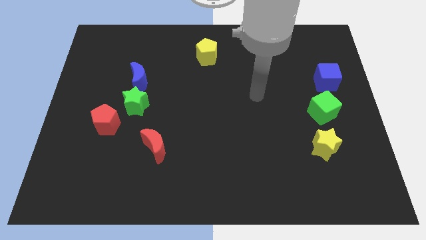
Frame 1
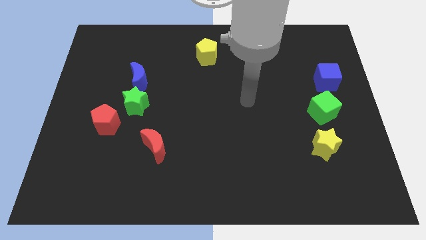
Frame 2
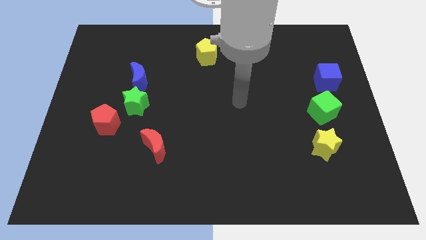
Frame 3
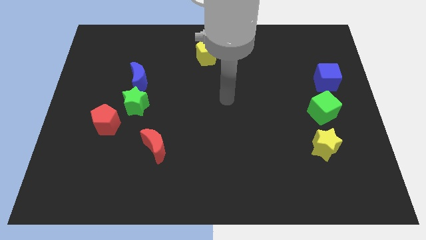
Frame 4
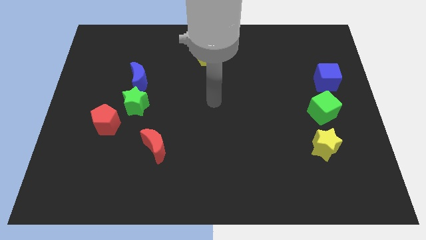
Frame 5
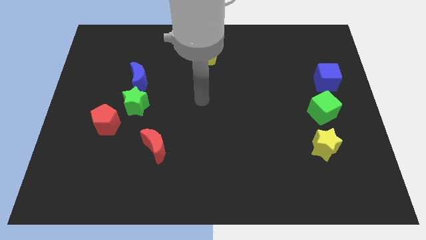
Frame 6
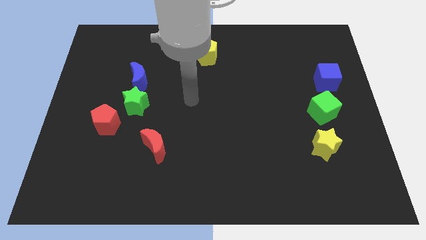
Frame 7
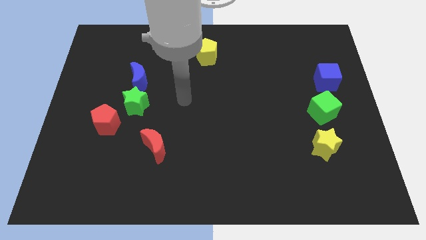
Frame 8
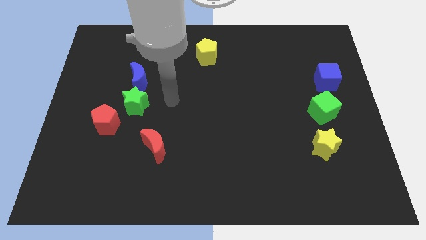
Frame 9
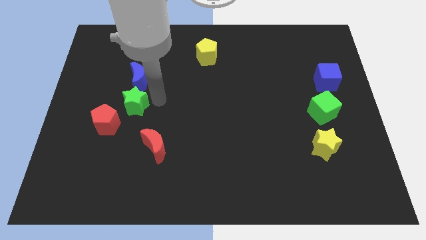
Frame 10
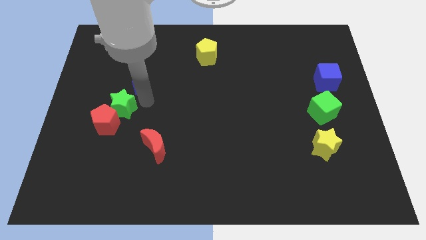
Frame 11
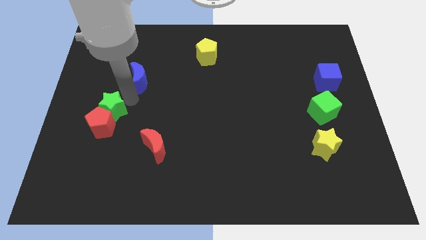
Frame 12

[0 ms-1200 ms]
separate the blue moon from the green star

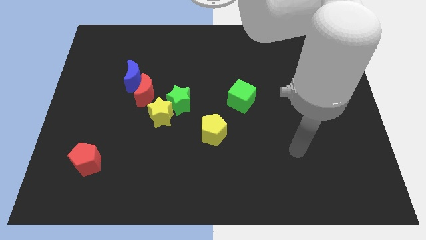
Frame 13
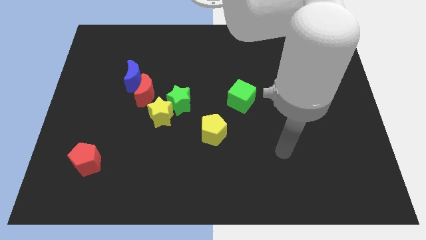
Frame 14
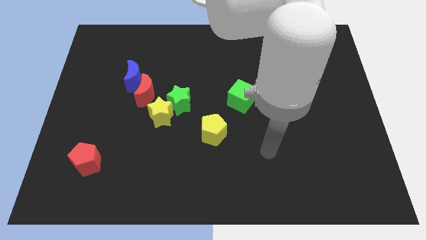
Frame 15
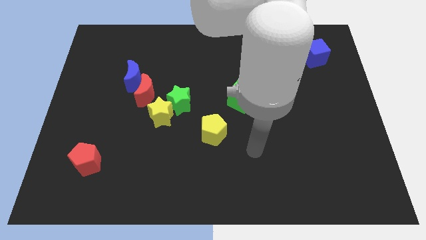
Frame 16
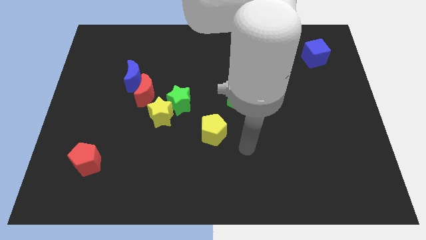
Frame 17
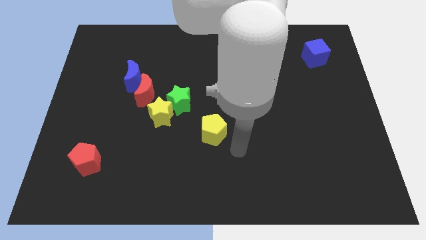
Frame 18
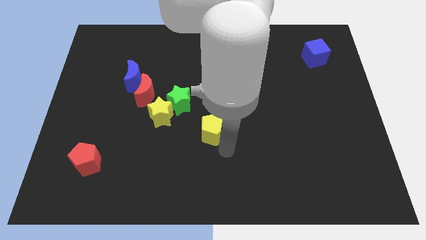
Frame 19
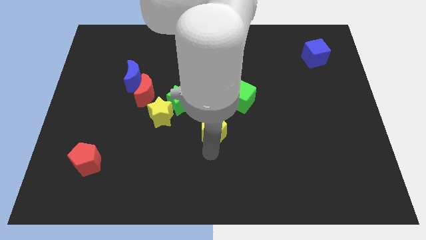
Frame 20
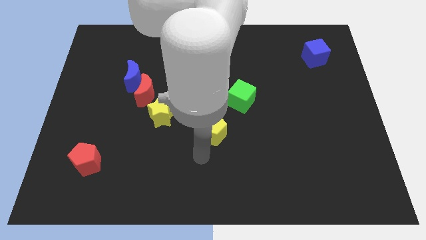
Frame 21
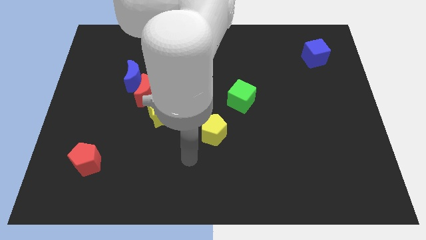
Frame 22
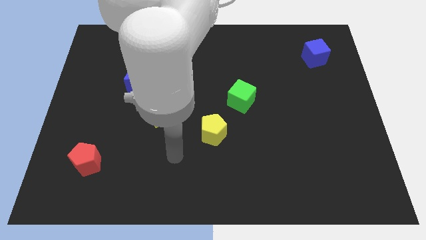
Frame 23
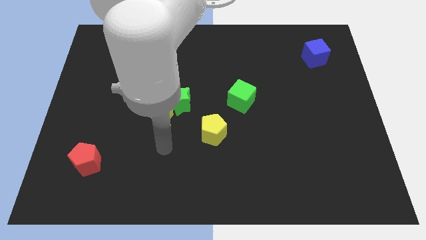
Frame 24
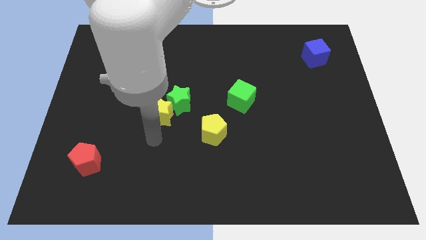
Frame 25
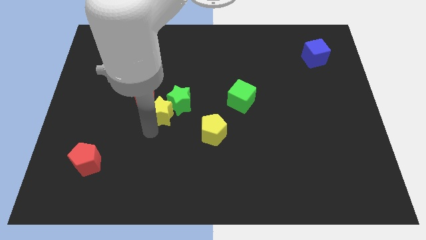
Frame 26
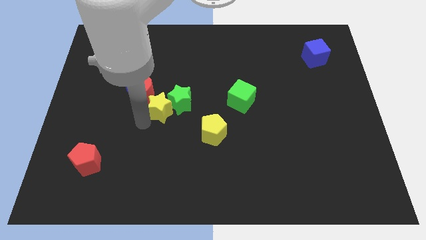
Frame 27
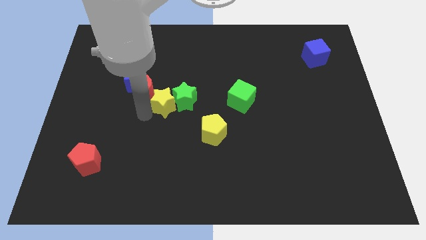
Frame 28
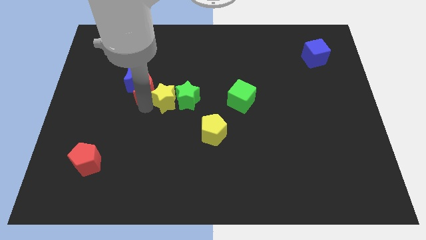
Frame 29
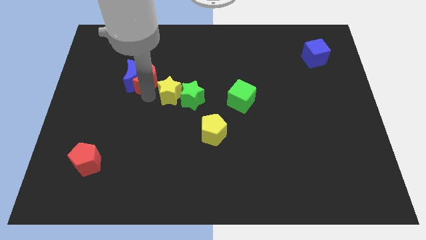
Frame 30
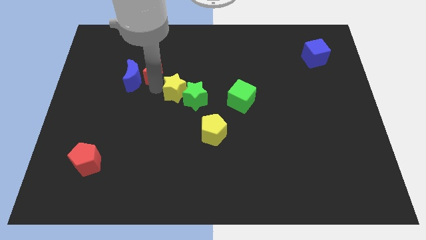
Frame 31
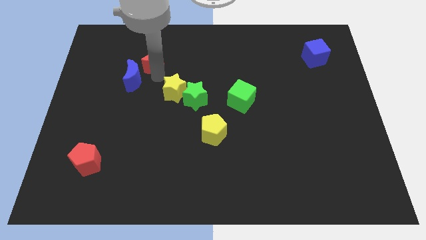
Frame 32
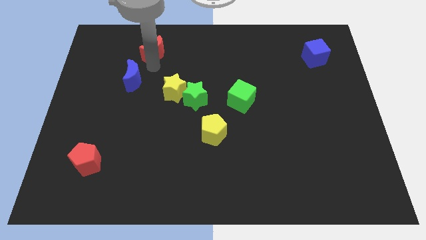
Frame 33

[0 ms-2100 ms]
separate the blue moon from the red moon

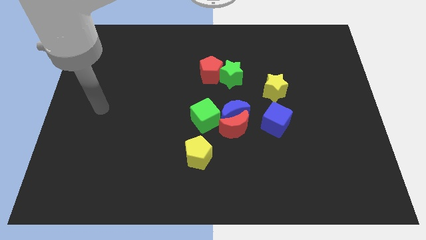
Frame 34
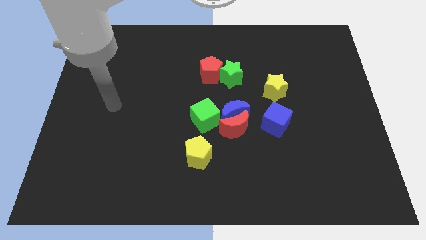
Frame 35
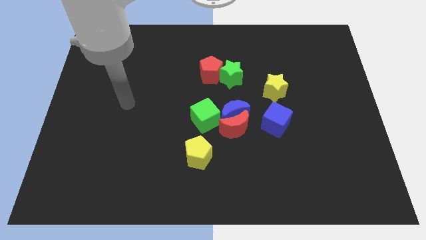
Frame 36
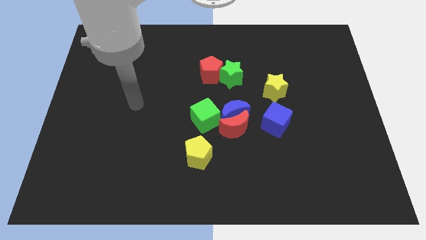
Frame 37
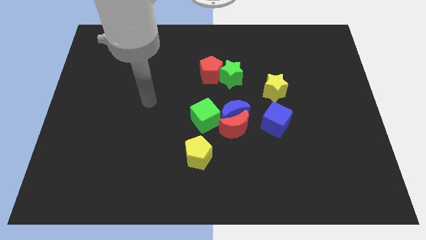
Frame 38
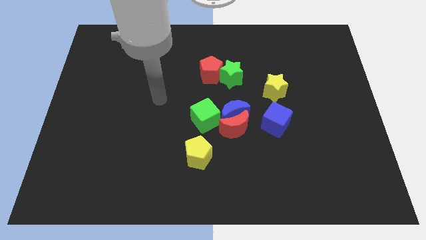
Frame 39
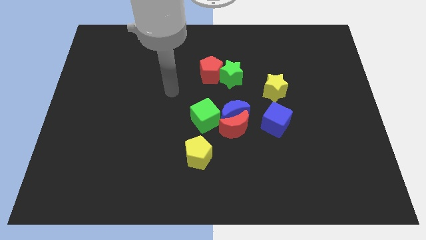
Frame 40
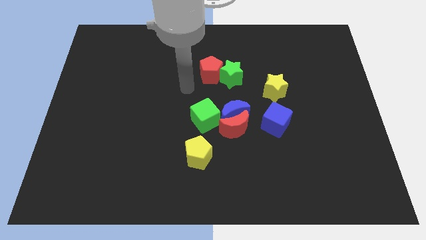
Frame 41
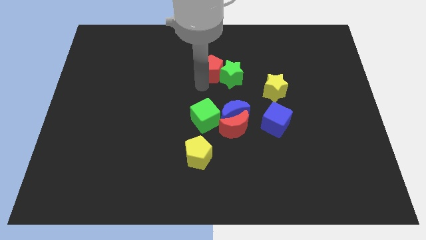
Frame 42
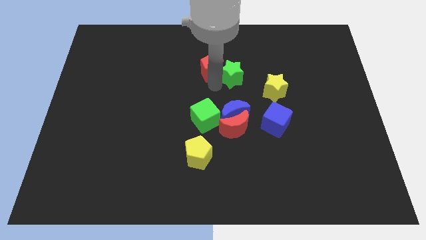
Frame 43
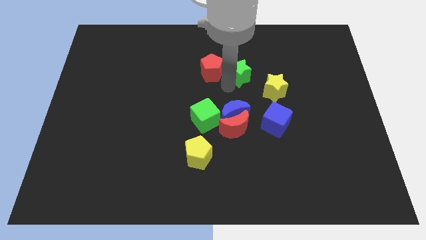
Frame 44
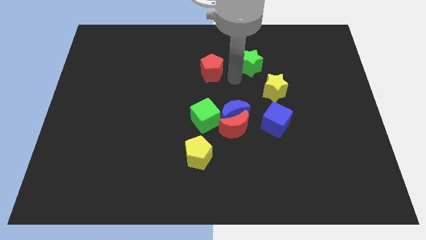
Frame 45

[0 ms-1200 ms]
pull the red pentagon apart from the green star

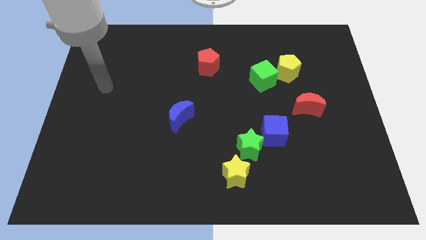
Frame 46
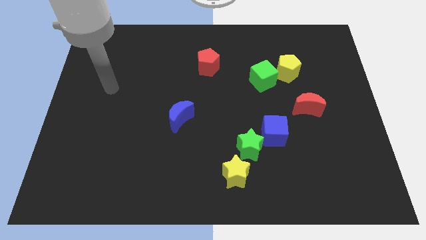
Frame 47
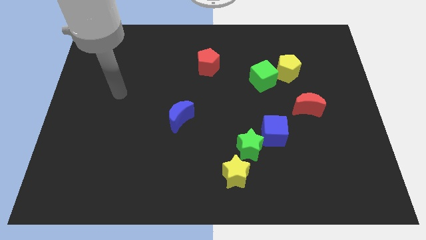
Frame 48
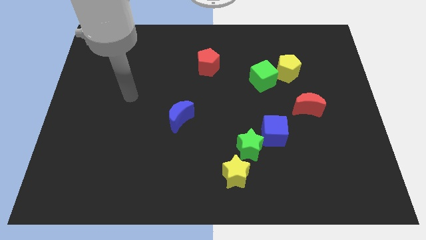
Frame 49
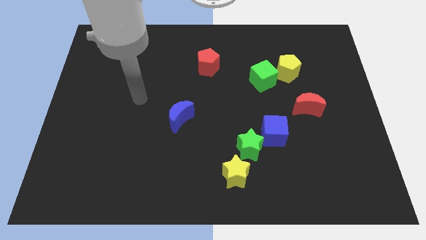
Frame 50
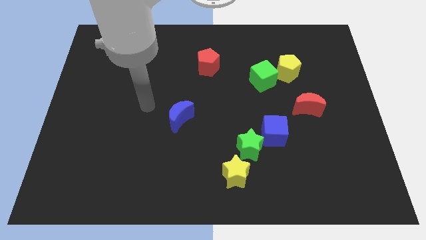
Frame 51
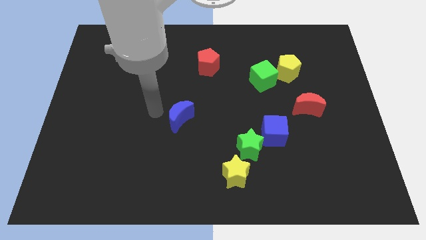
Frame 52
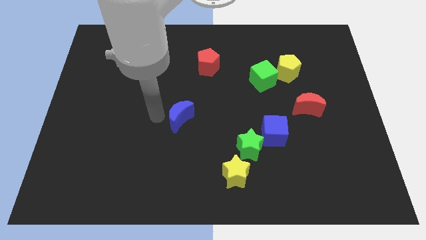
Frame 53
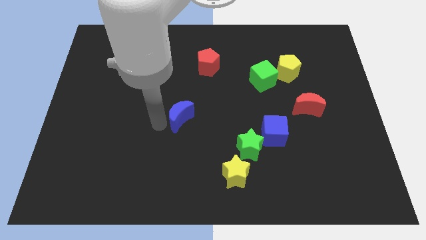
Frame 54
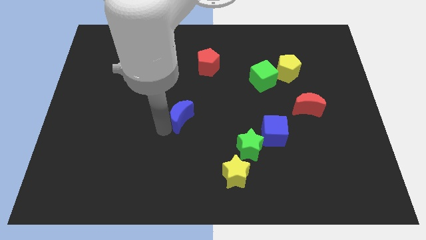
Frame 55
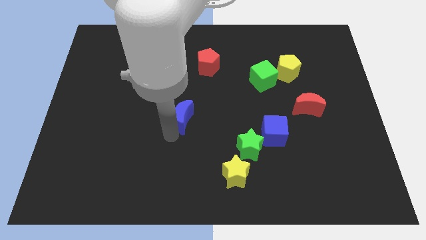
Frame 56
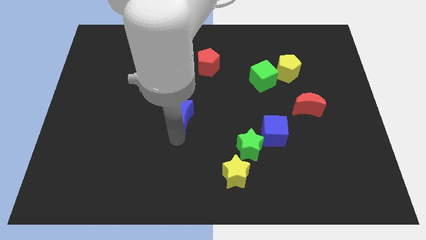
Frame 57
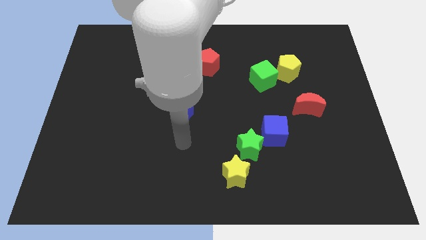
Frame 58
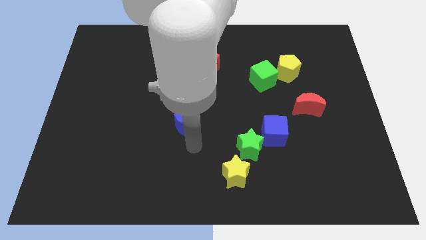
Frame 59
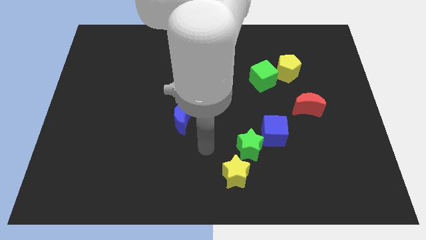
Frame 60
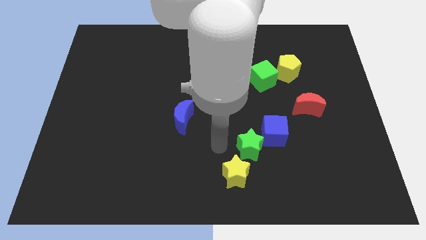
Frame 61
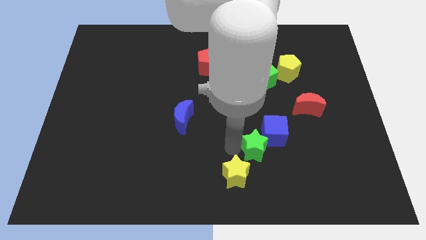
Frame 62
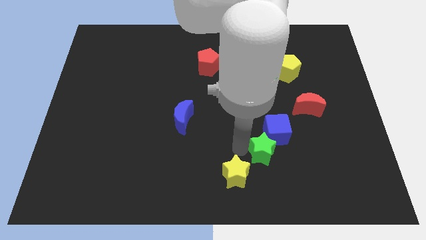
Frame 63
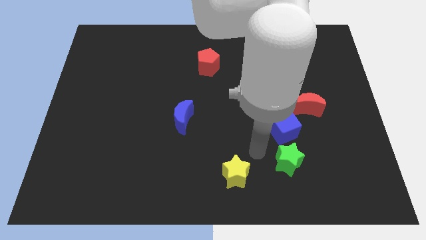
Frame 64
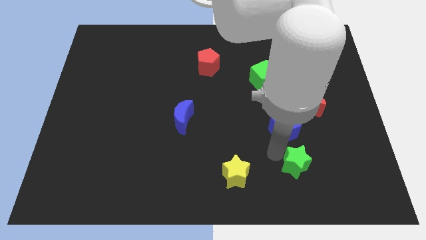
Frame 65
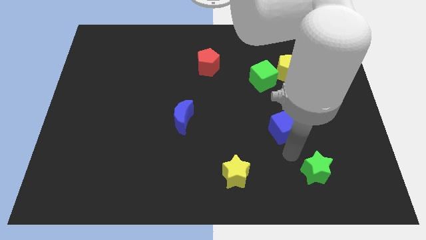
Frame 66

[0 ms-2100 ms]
pull the blue cube apart from the green star

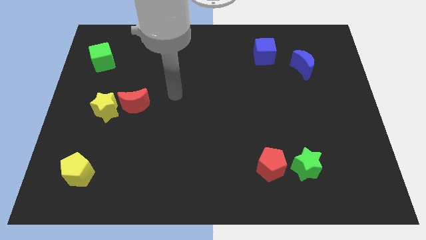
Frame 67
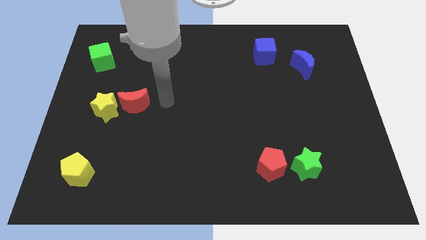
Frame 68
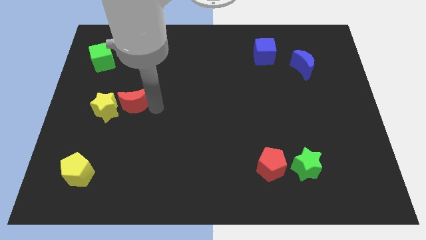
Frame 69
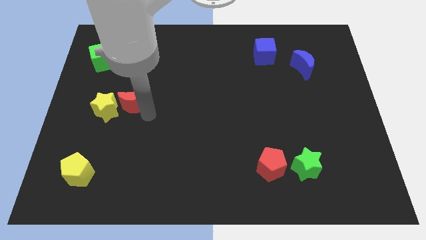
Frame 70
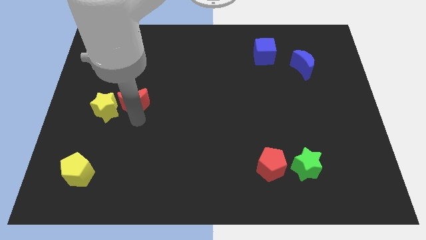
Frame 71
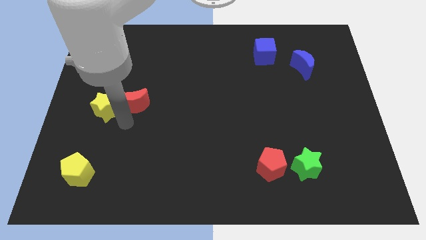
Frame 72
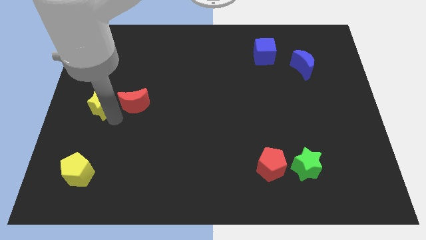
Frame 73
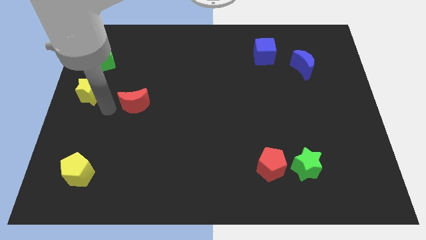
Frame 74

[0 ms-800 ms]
separate the red moon from the yellow star

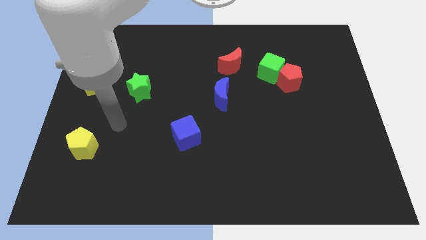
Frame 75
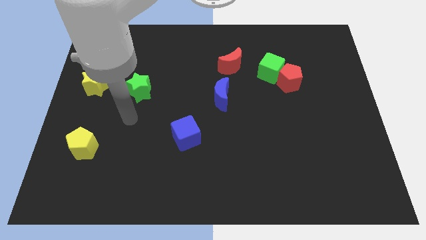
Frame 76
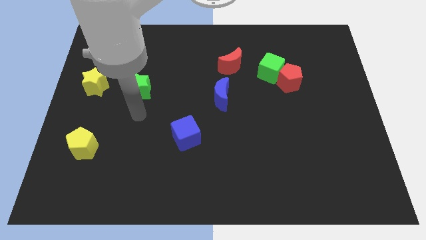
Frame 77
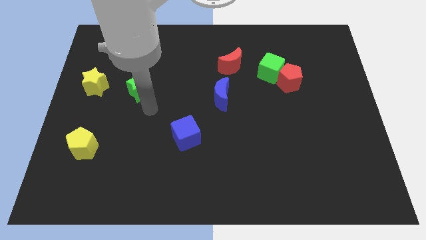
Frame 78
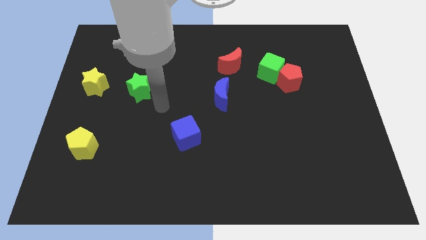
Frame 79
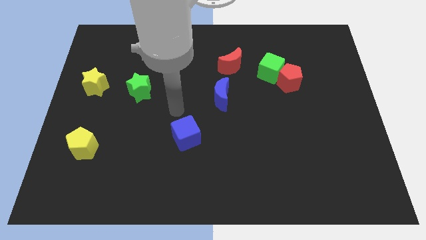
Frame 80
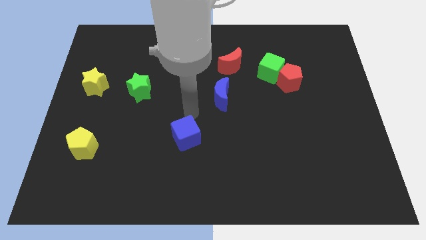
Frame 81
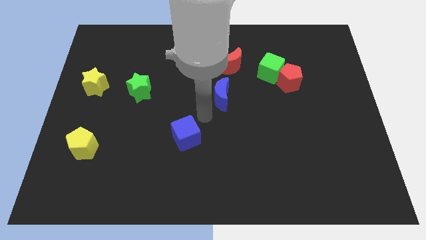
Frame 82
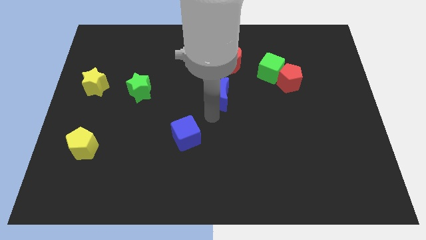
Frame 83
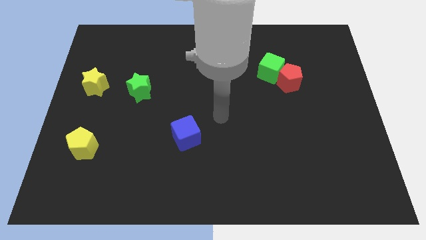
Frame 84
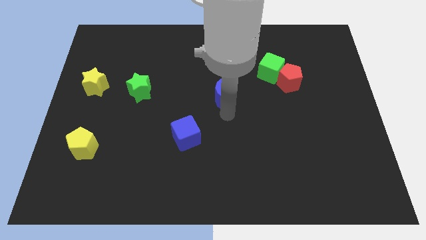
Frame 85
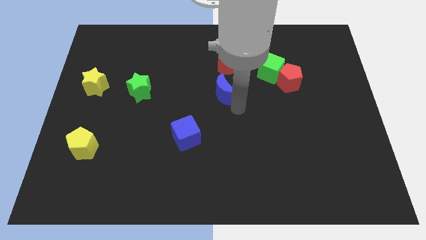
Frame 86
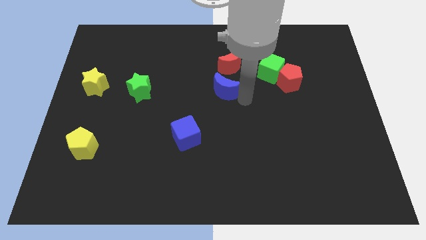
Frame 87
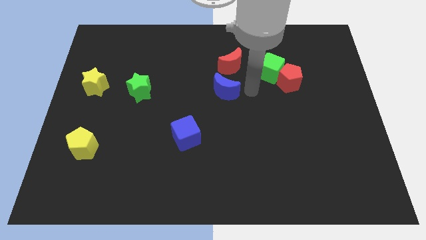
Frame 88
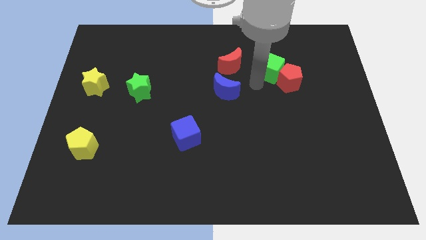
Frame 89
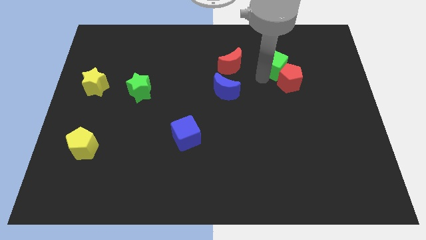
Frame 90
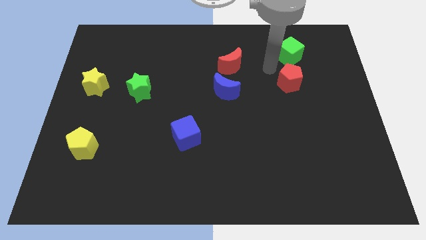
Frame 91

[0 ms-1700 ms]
separate the red pentagon from the green cube
